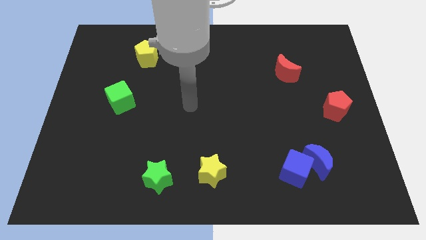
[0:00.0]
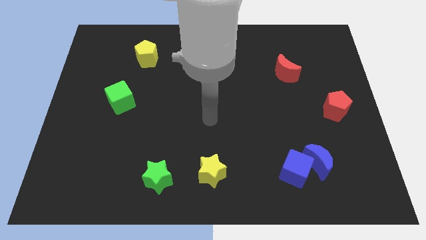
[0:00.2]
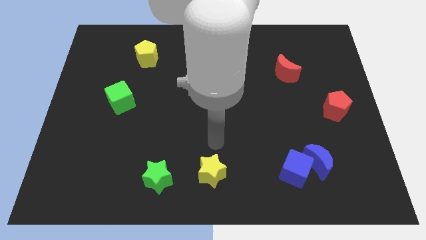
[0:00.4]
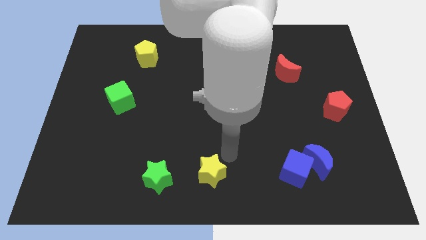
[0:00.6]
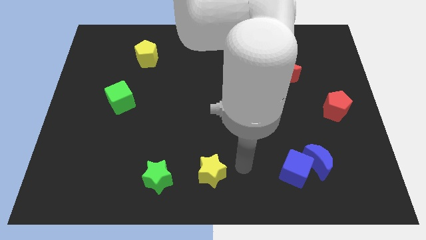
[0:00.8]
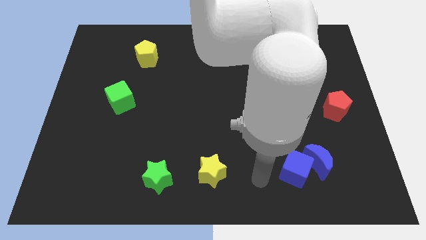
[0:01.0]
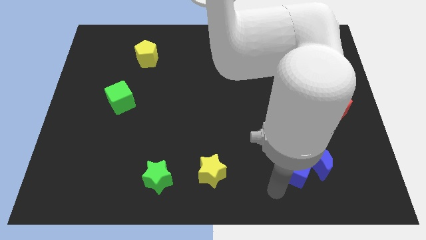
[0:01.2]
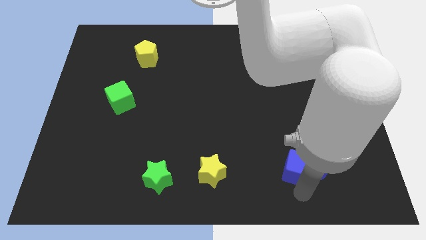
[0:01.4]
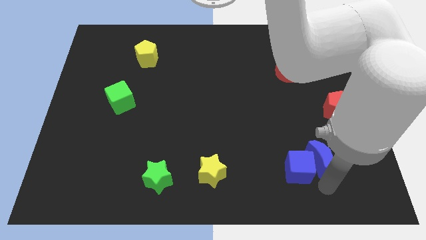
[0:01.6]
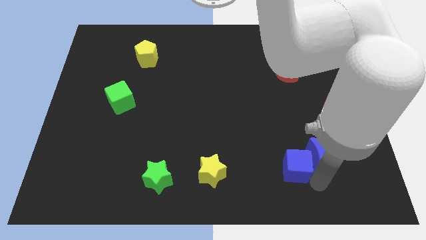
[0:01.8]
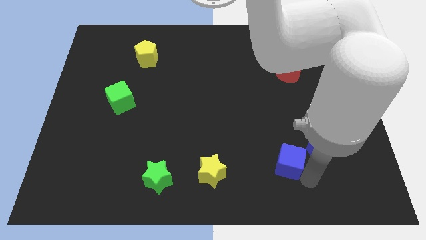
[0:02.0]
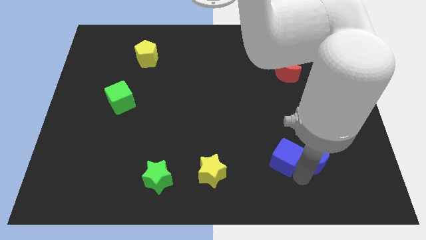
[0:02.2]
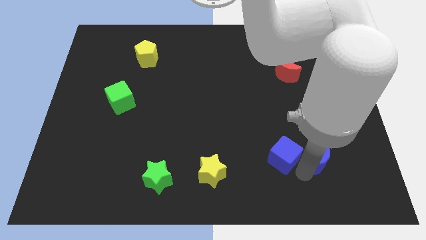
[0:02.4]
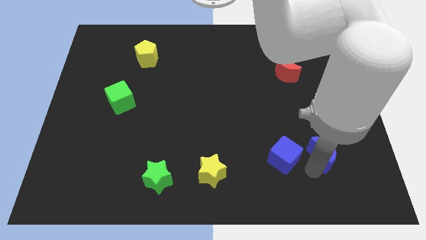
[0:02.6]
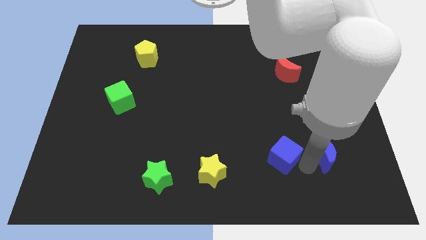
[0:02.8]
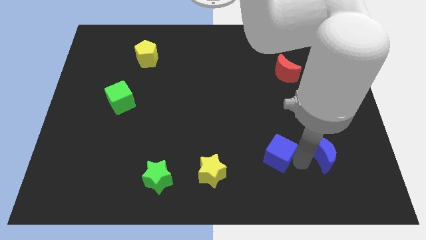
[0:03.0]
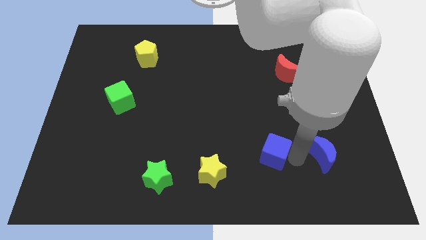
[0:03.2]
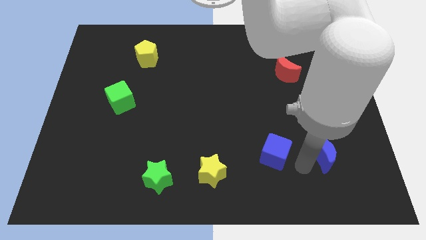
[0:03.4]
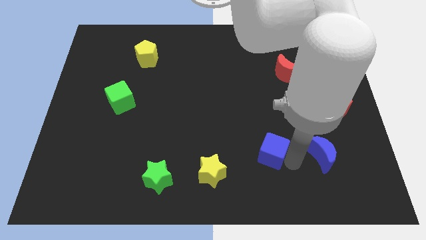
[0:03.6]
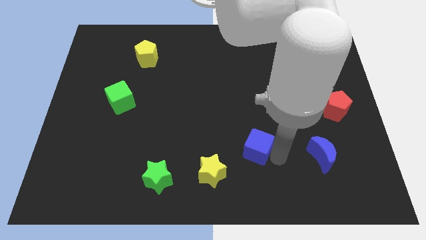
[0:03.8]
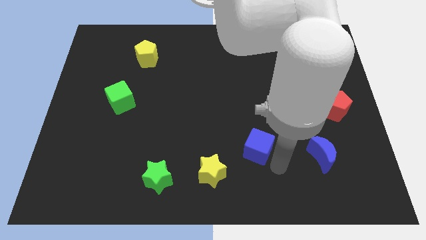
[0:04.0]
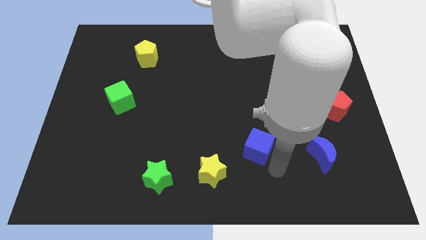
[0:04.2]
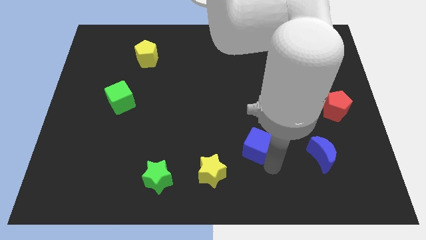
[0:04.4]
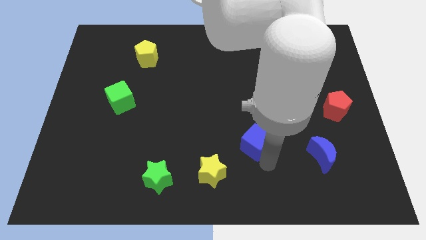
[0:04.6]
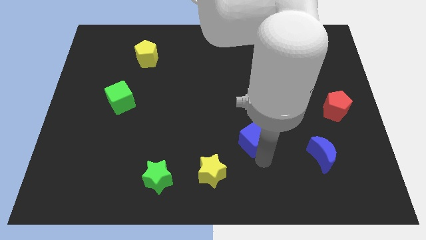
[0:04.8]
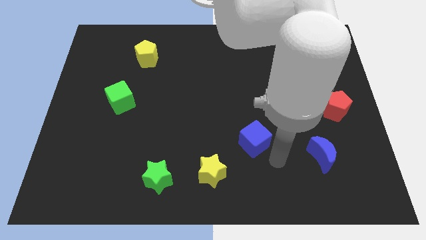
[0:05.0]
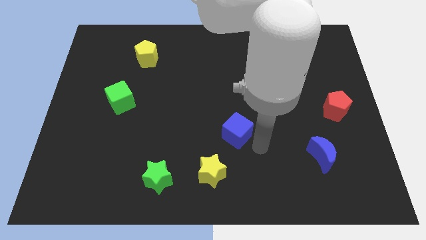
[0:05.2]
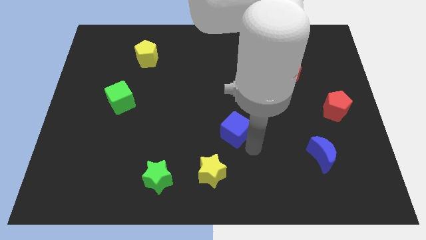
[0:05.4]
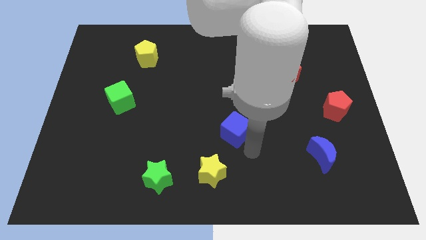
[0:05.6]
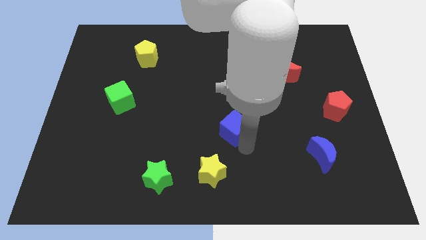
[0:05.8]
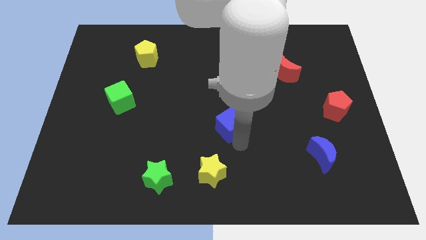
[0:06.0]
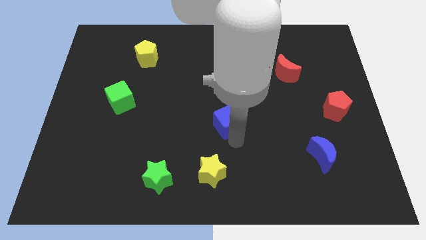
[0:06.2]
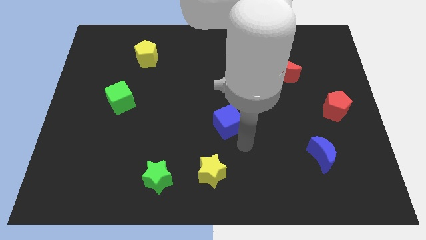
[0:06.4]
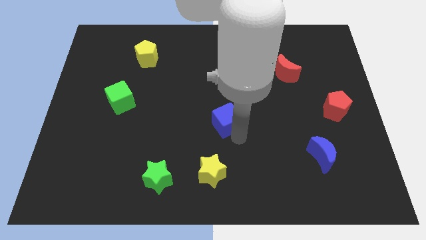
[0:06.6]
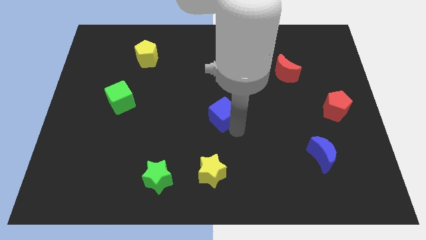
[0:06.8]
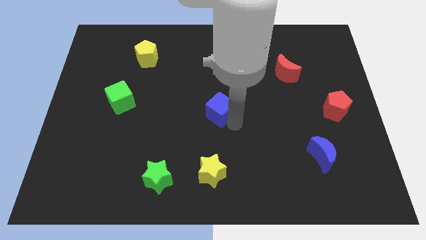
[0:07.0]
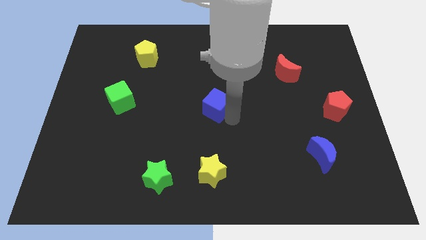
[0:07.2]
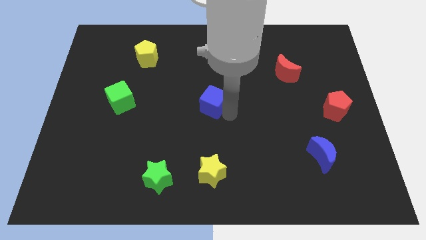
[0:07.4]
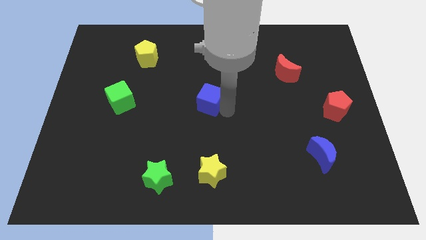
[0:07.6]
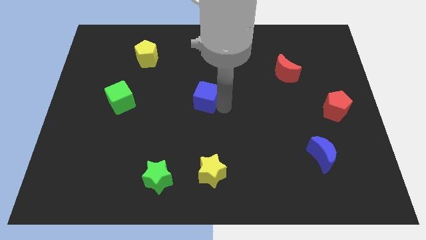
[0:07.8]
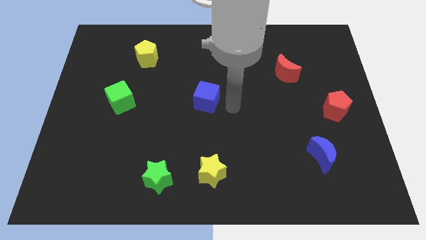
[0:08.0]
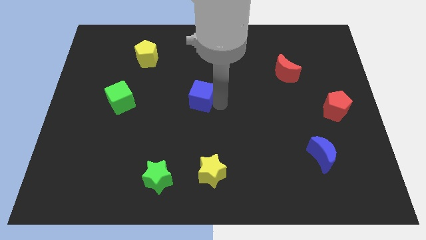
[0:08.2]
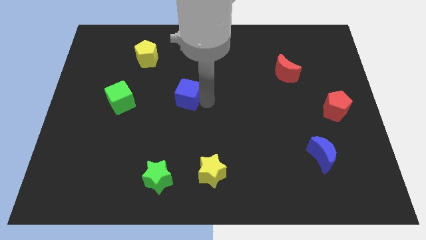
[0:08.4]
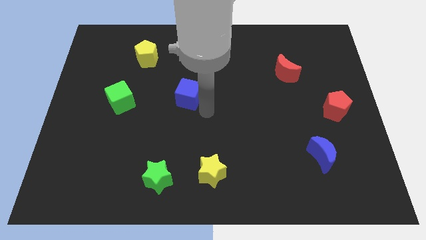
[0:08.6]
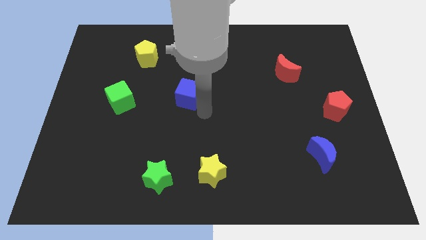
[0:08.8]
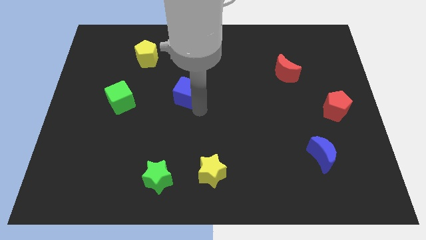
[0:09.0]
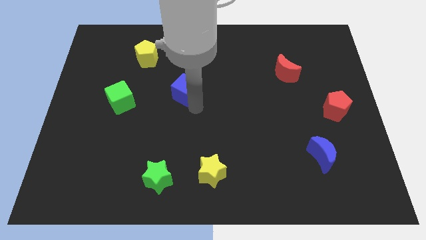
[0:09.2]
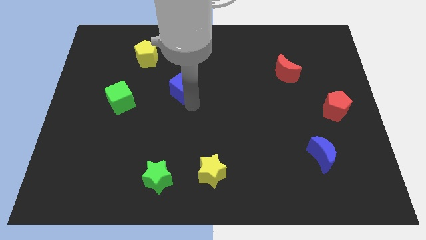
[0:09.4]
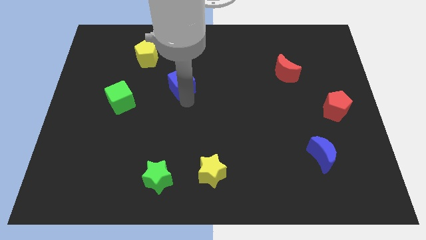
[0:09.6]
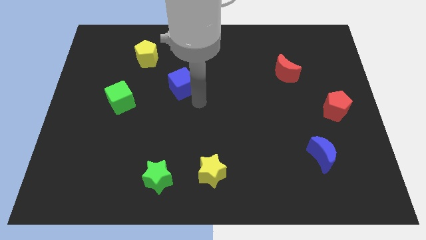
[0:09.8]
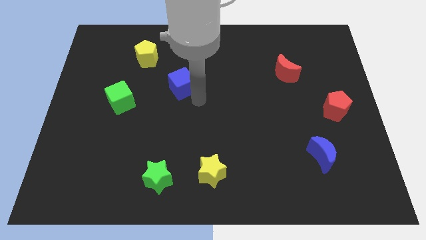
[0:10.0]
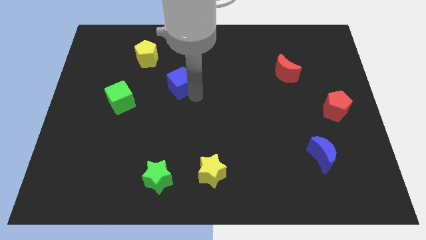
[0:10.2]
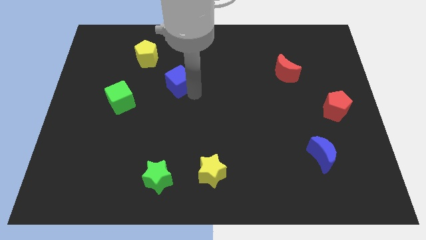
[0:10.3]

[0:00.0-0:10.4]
move the blue cube to the bottom right side of the yellow pentagon

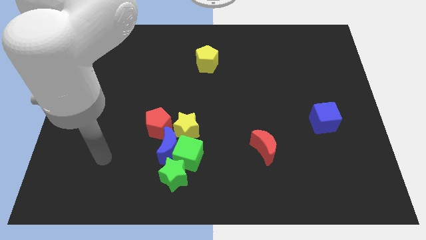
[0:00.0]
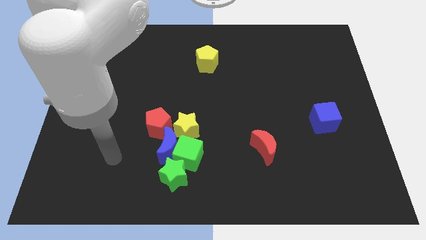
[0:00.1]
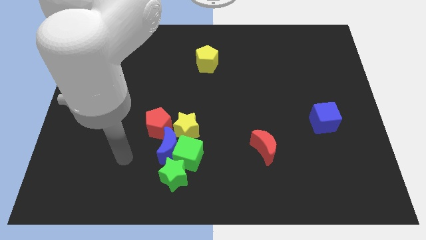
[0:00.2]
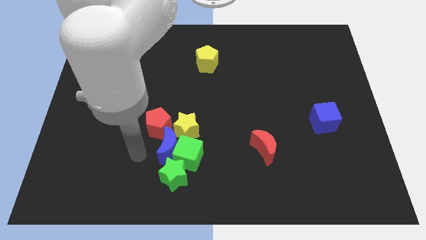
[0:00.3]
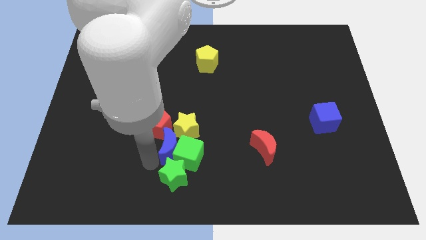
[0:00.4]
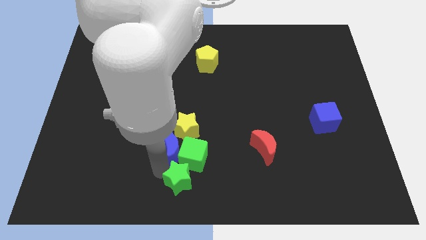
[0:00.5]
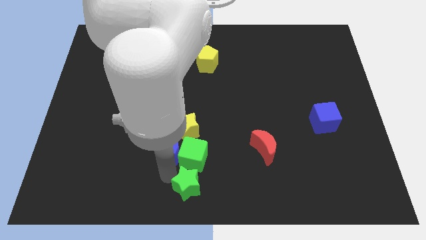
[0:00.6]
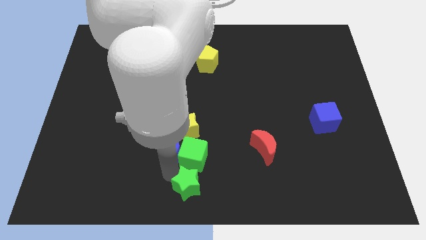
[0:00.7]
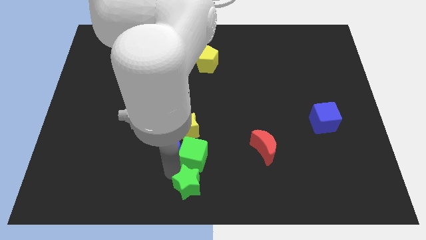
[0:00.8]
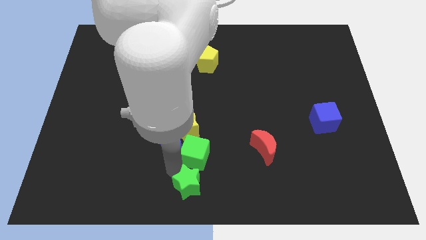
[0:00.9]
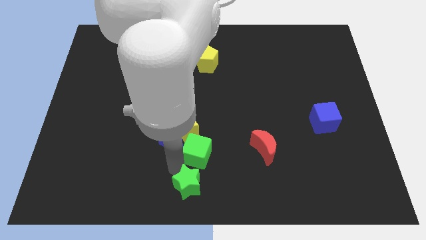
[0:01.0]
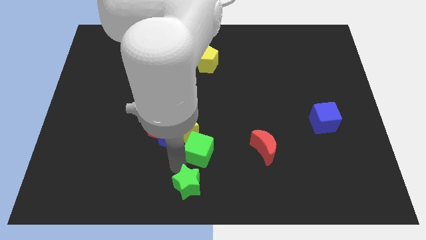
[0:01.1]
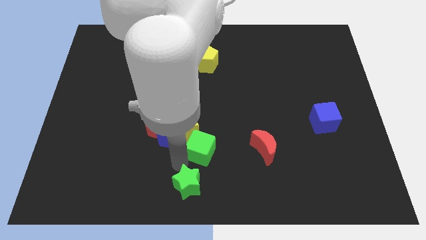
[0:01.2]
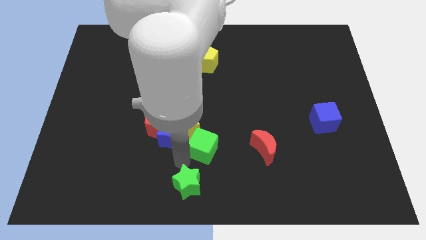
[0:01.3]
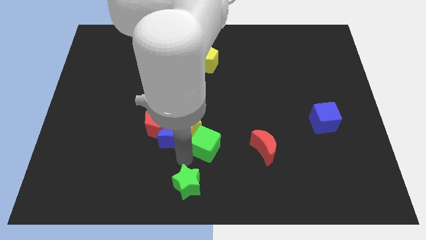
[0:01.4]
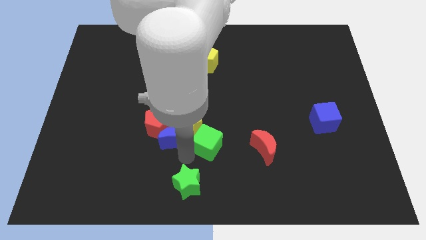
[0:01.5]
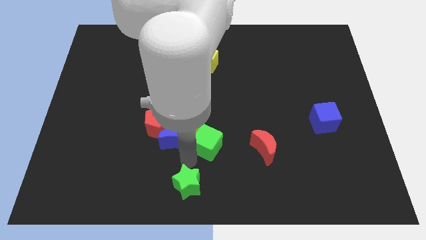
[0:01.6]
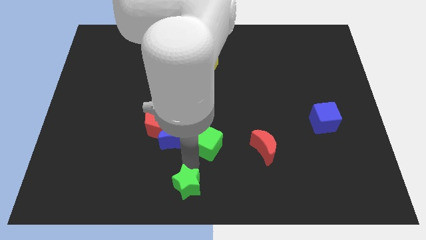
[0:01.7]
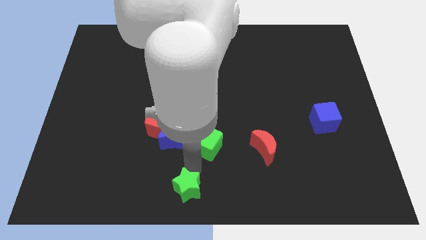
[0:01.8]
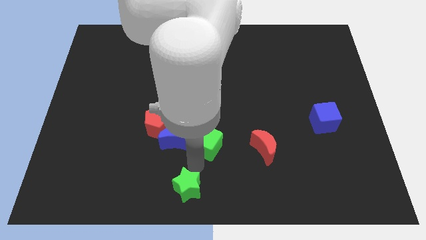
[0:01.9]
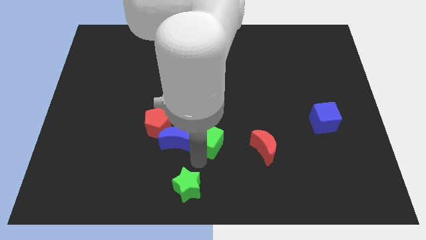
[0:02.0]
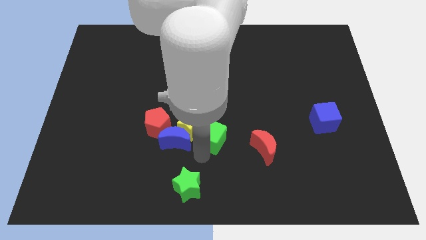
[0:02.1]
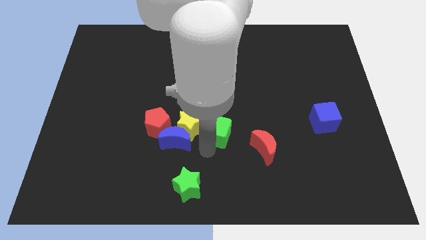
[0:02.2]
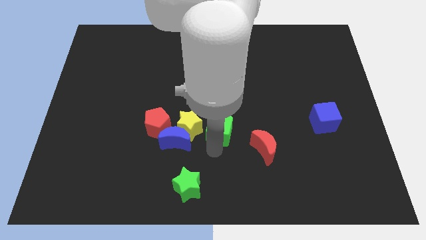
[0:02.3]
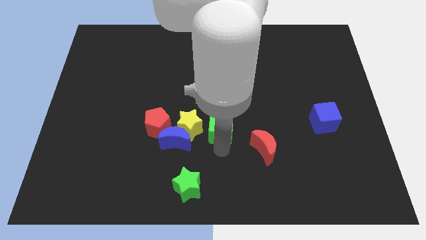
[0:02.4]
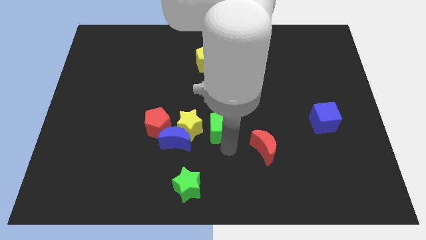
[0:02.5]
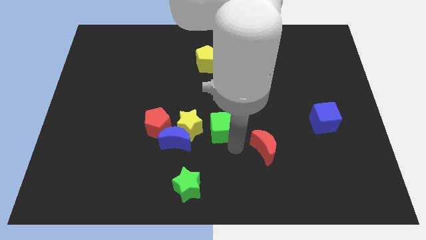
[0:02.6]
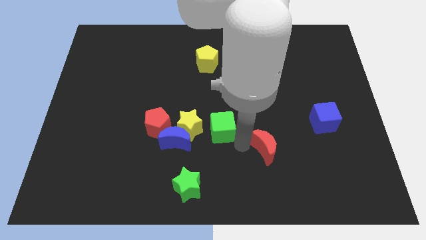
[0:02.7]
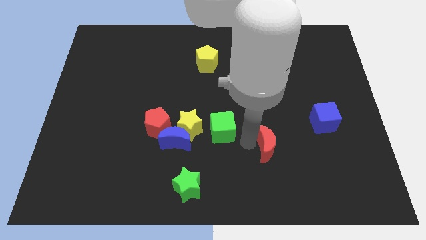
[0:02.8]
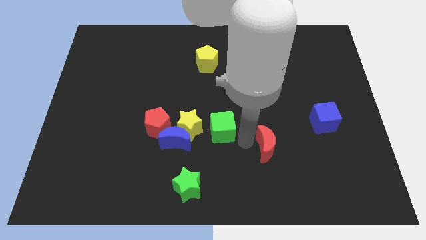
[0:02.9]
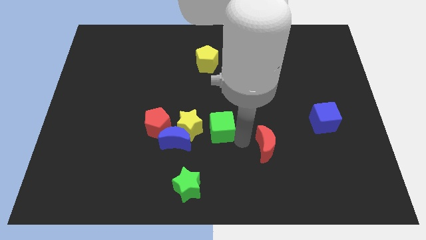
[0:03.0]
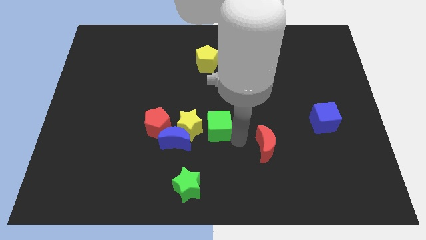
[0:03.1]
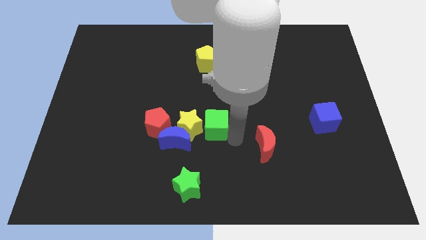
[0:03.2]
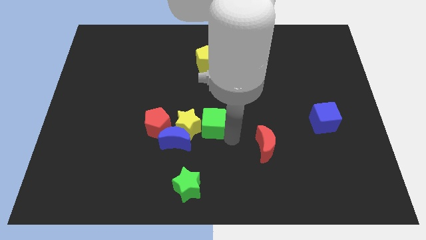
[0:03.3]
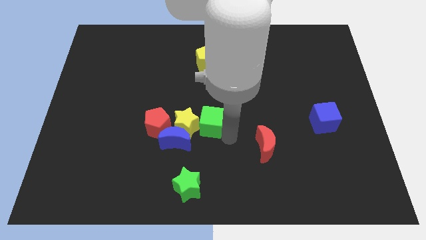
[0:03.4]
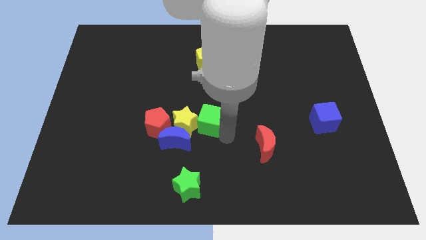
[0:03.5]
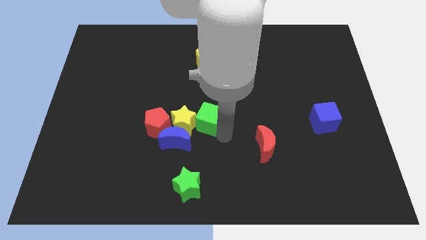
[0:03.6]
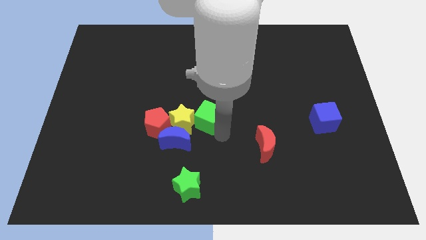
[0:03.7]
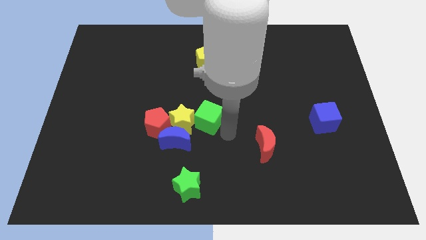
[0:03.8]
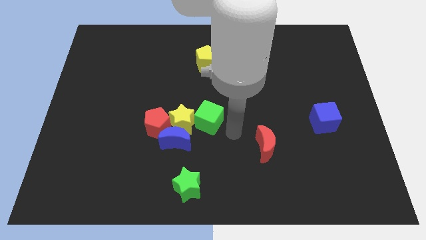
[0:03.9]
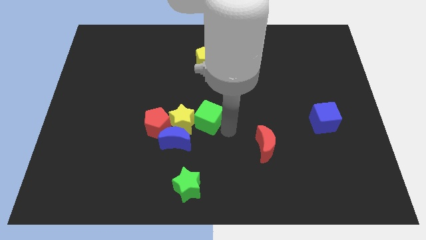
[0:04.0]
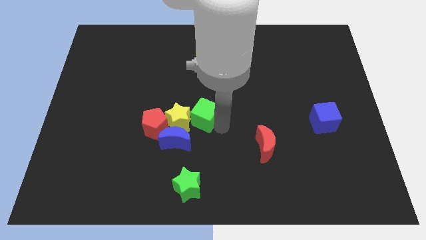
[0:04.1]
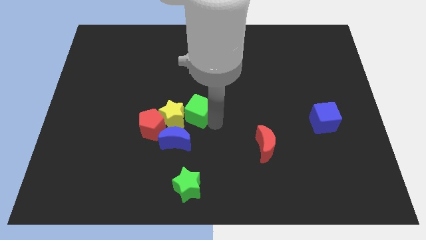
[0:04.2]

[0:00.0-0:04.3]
move the green cube diagonally up and to the right of the red pentagon
